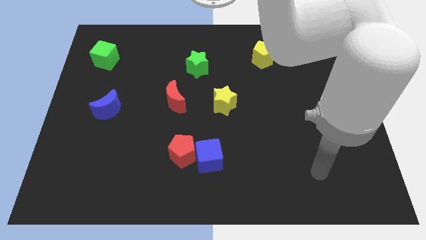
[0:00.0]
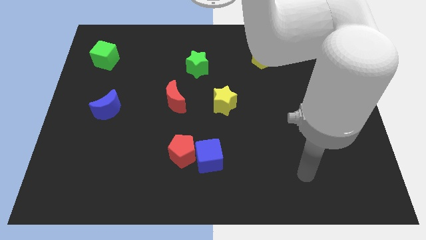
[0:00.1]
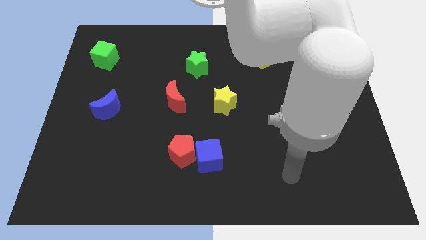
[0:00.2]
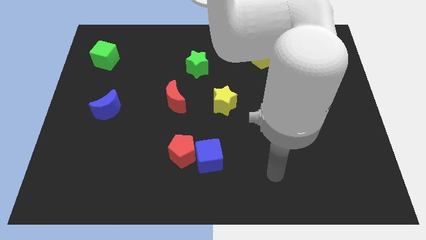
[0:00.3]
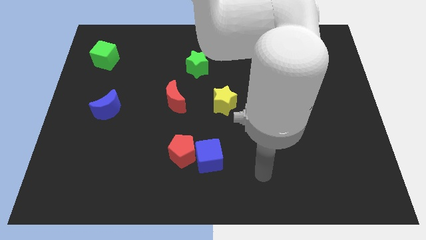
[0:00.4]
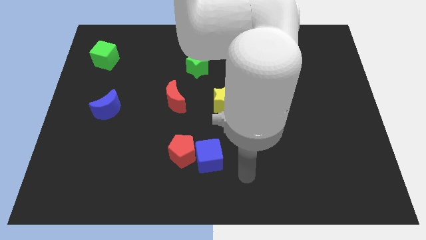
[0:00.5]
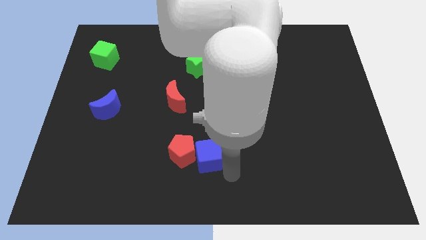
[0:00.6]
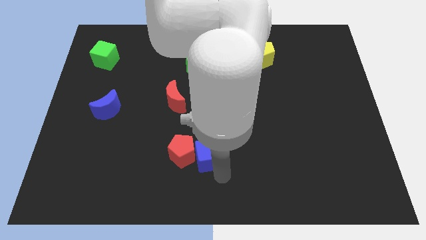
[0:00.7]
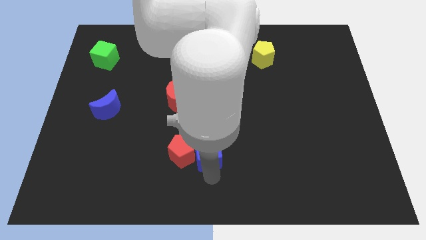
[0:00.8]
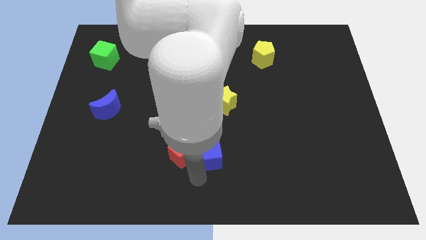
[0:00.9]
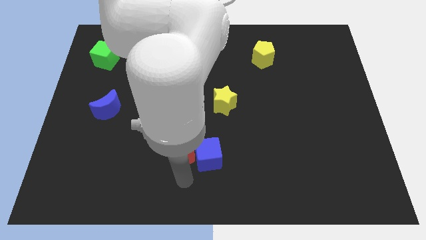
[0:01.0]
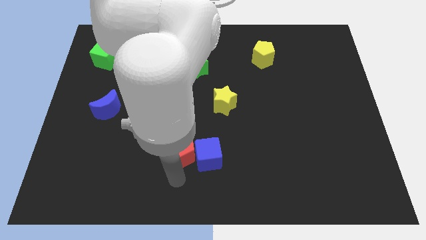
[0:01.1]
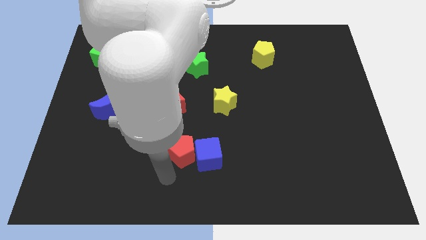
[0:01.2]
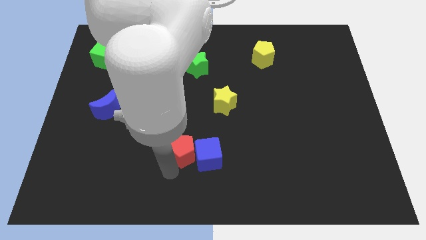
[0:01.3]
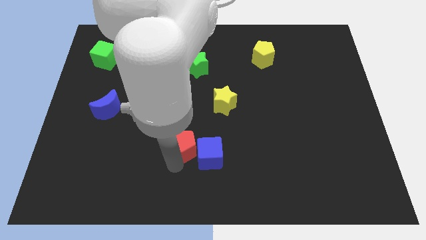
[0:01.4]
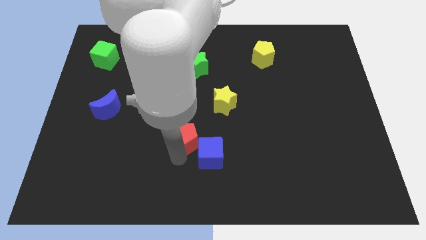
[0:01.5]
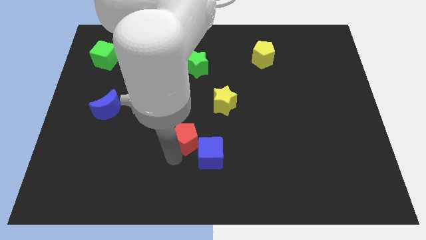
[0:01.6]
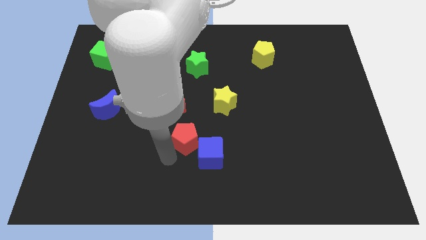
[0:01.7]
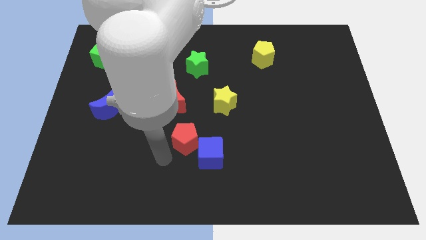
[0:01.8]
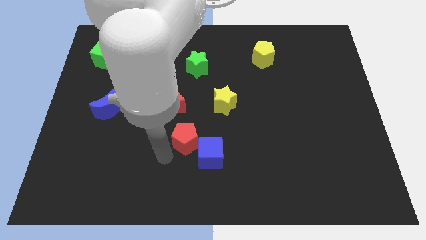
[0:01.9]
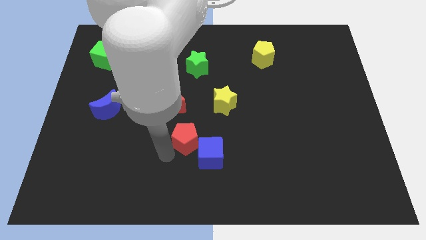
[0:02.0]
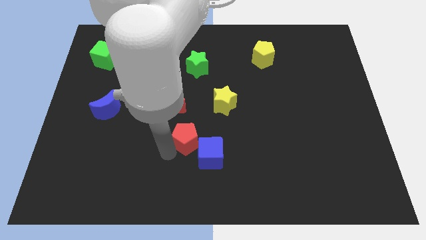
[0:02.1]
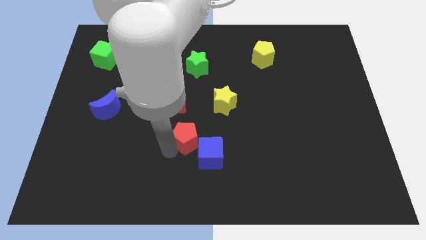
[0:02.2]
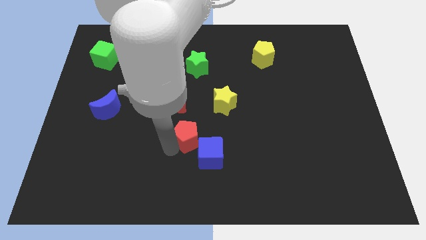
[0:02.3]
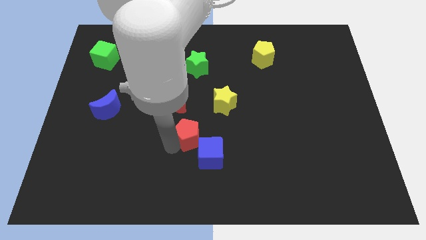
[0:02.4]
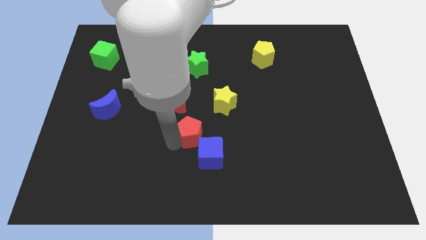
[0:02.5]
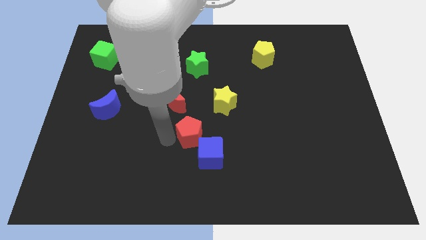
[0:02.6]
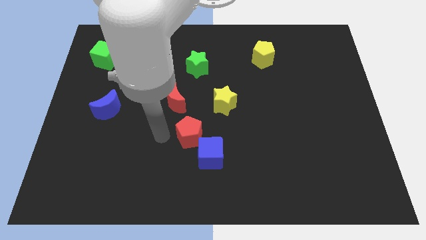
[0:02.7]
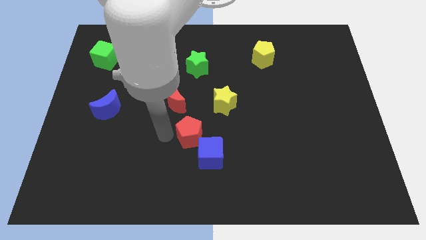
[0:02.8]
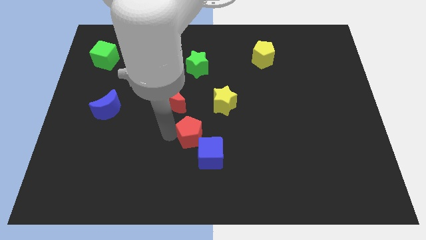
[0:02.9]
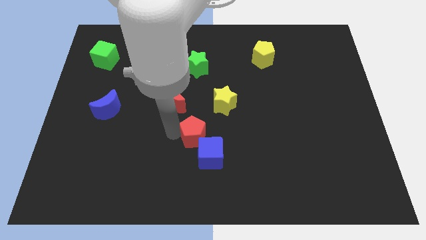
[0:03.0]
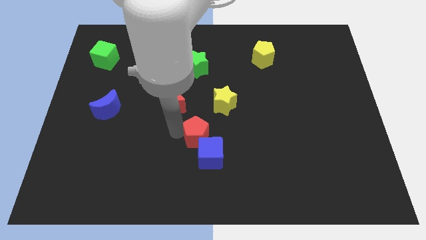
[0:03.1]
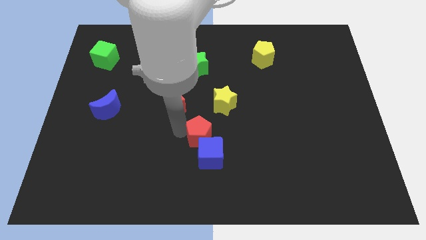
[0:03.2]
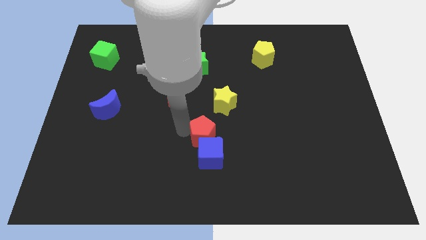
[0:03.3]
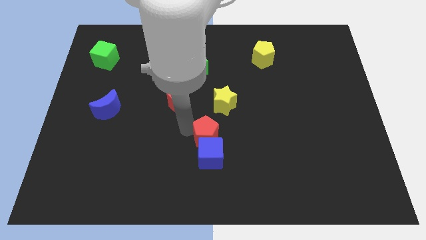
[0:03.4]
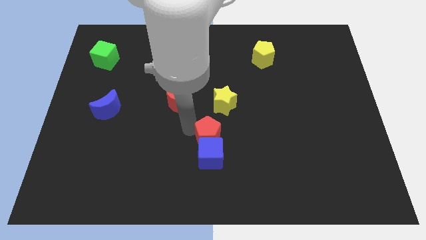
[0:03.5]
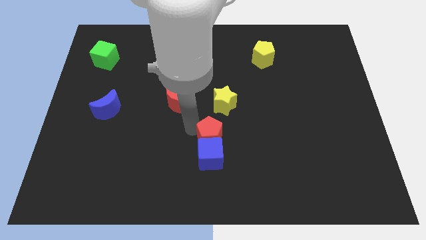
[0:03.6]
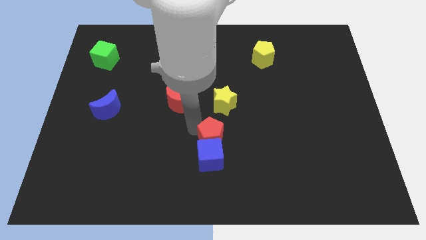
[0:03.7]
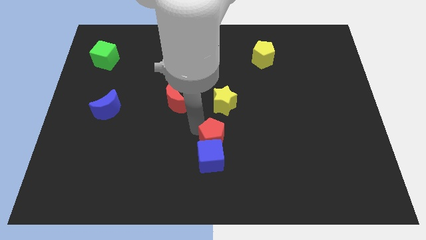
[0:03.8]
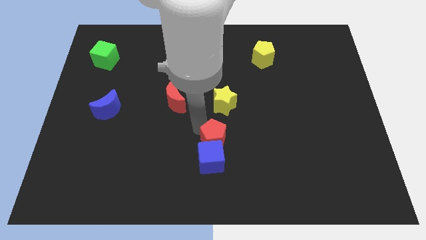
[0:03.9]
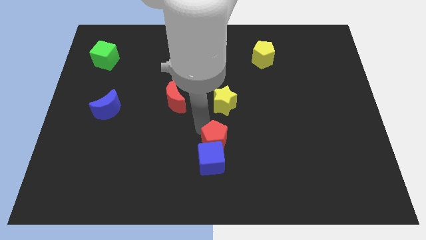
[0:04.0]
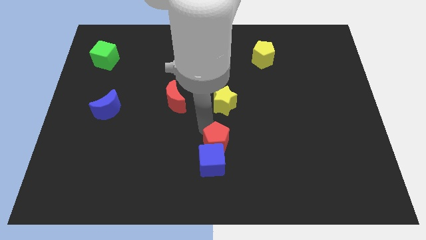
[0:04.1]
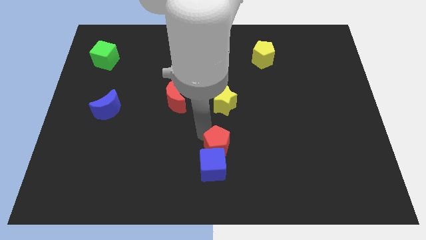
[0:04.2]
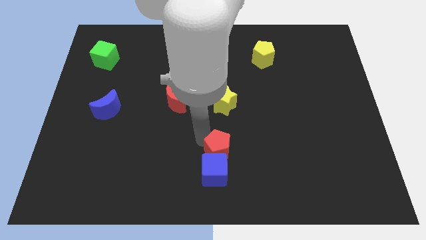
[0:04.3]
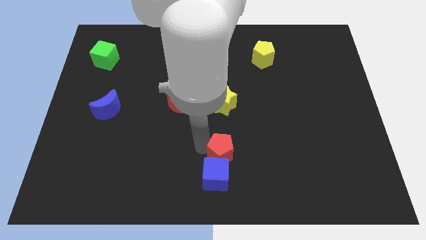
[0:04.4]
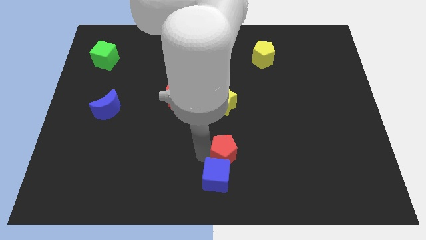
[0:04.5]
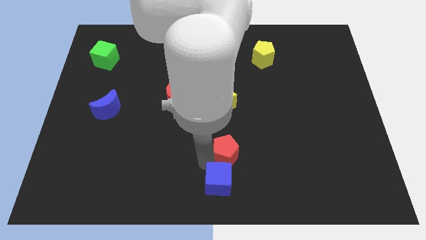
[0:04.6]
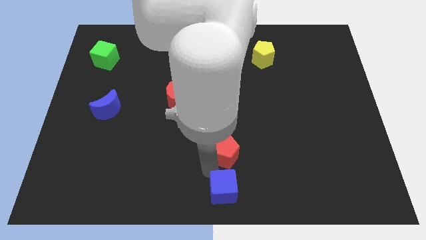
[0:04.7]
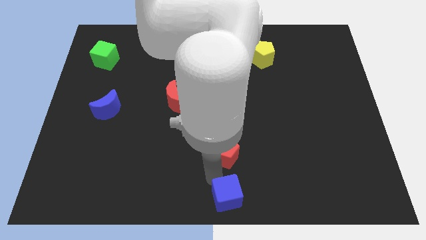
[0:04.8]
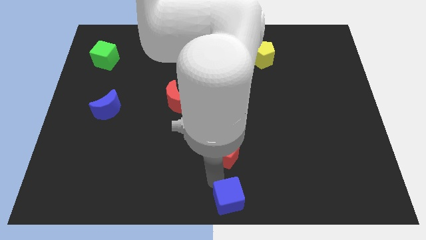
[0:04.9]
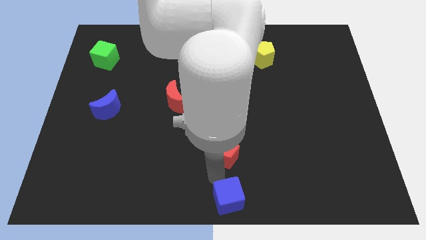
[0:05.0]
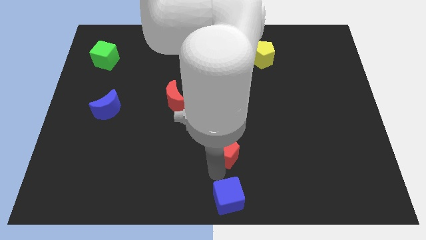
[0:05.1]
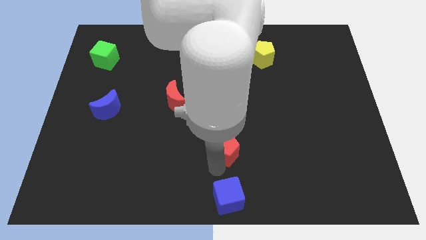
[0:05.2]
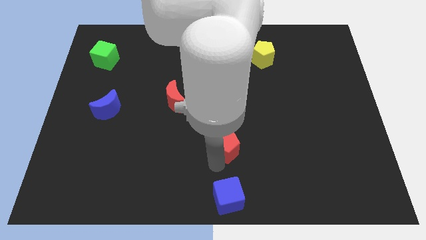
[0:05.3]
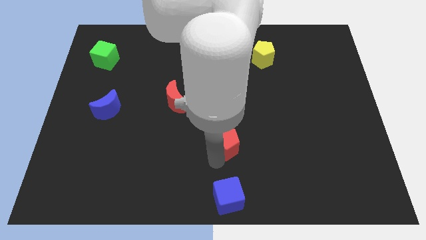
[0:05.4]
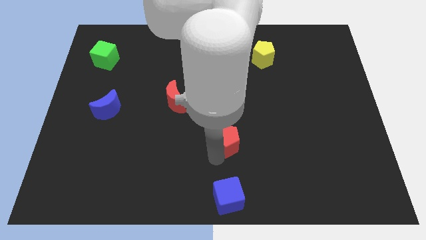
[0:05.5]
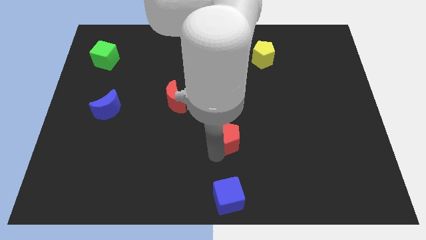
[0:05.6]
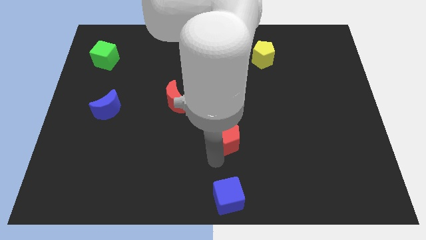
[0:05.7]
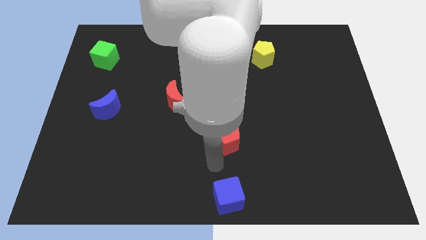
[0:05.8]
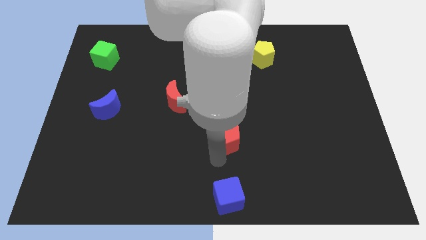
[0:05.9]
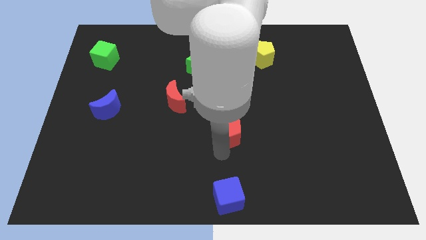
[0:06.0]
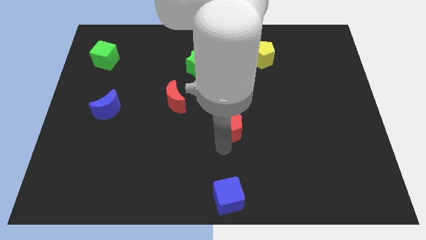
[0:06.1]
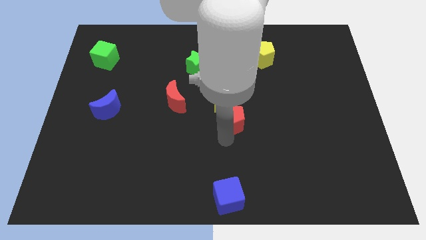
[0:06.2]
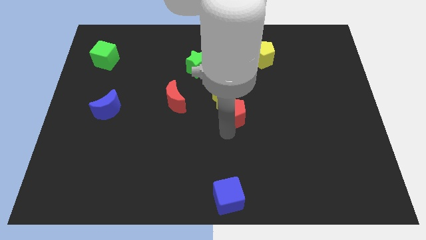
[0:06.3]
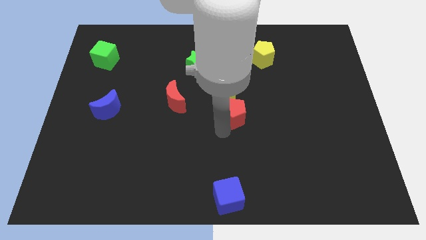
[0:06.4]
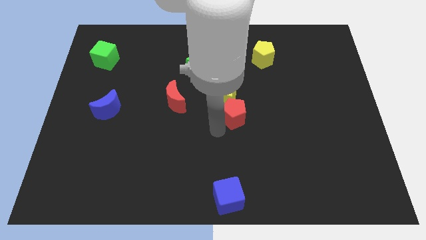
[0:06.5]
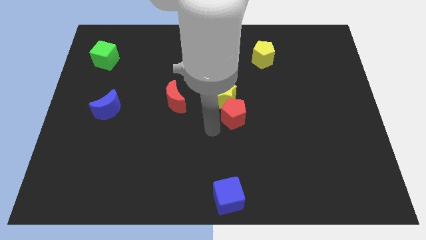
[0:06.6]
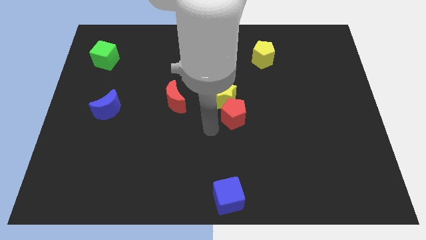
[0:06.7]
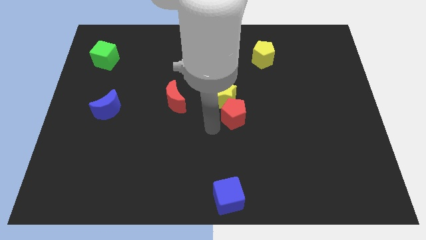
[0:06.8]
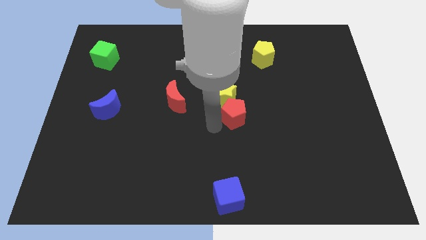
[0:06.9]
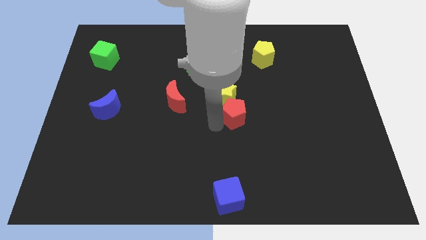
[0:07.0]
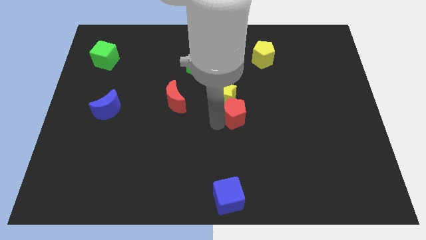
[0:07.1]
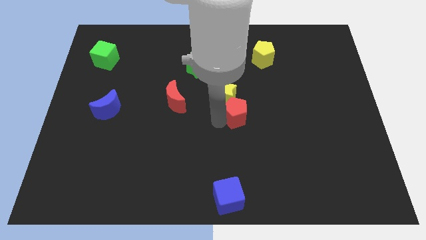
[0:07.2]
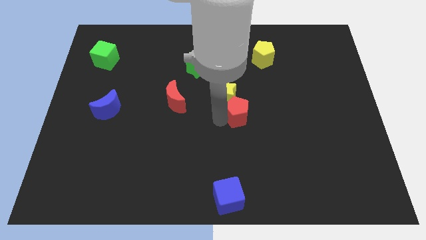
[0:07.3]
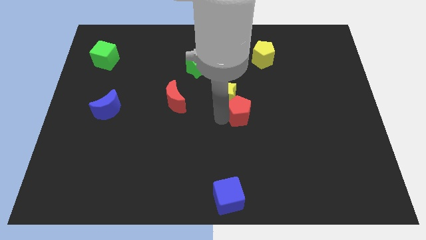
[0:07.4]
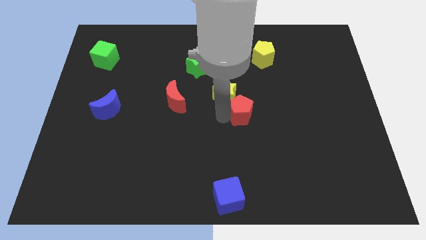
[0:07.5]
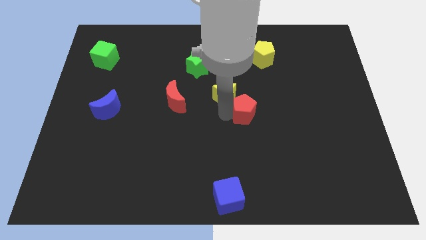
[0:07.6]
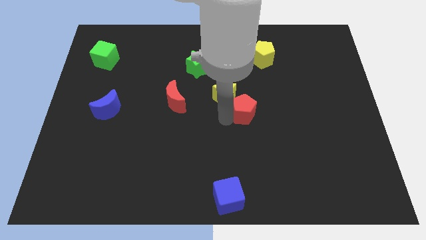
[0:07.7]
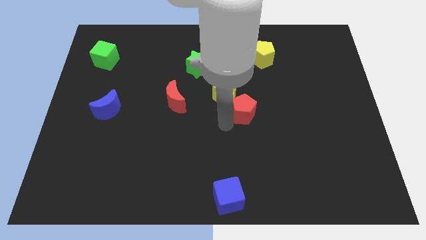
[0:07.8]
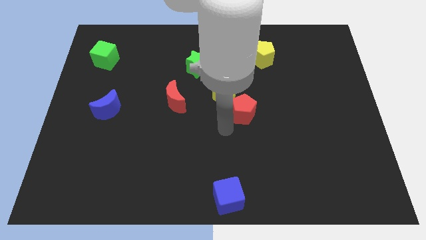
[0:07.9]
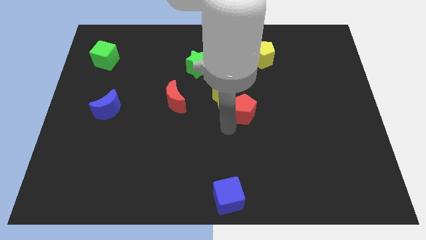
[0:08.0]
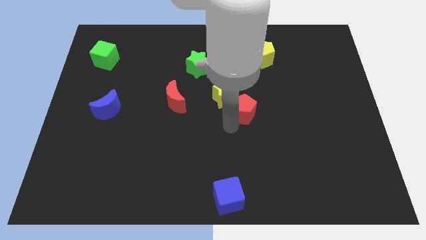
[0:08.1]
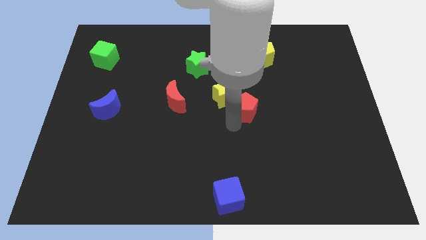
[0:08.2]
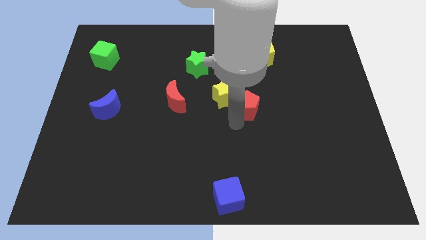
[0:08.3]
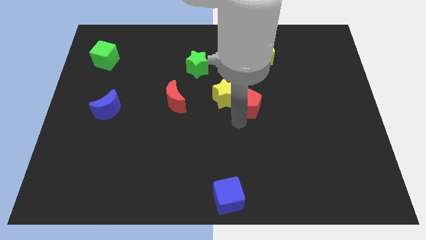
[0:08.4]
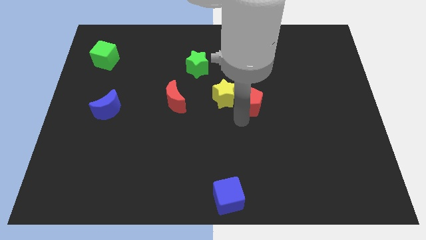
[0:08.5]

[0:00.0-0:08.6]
push the red pentagon up and to the right diagonally
